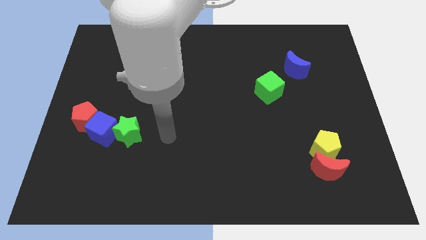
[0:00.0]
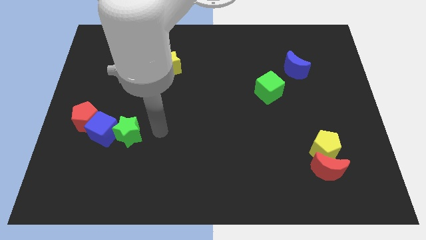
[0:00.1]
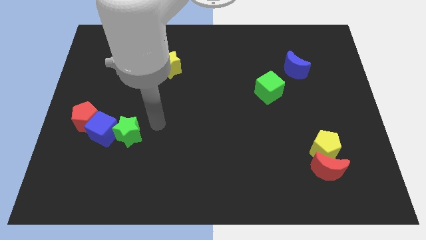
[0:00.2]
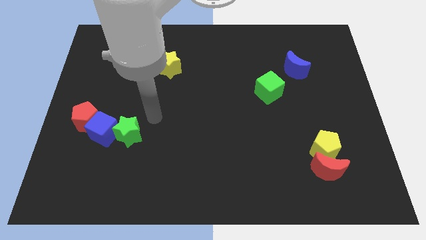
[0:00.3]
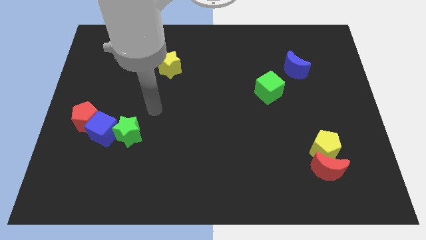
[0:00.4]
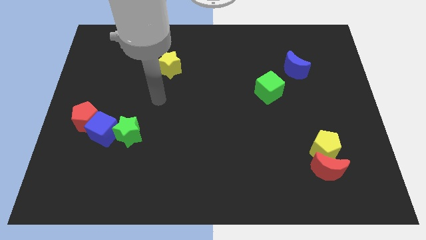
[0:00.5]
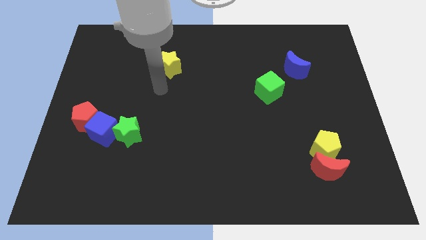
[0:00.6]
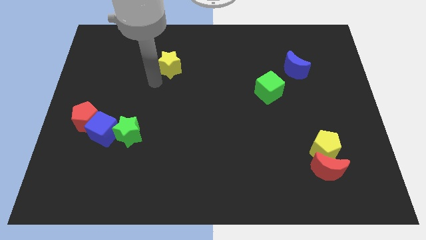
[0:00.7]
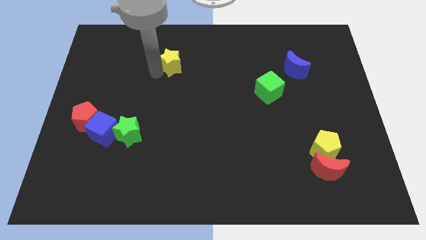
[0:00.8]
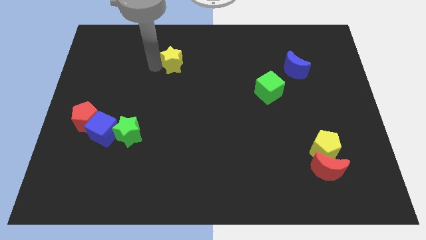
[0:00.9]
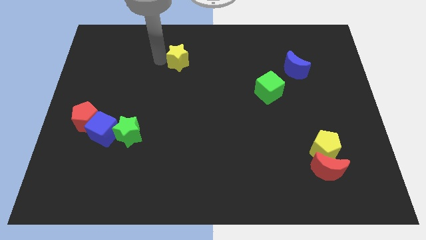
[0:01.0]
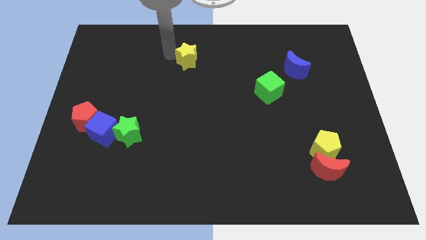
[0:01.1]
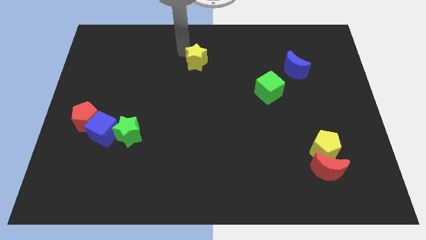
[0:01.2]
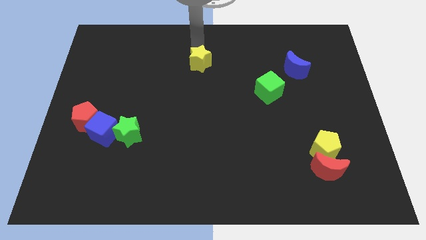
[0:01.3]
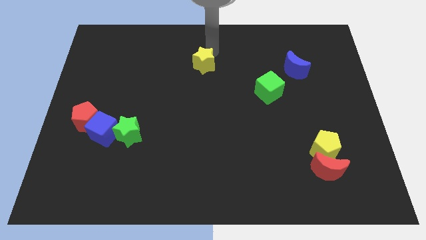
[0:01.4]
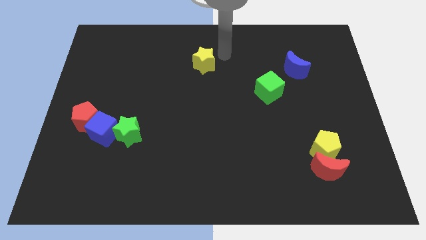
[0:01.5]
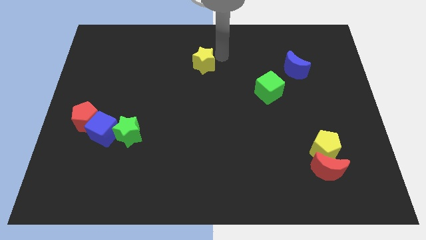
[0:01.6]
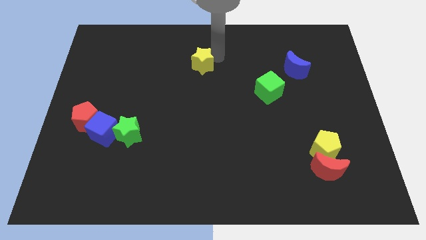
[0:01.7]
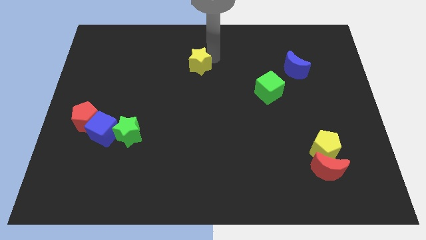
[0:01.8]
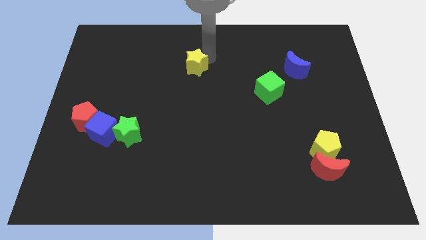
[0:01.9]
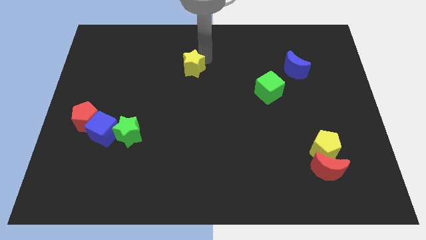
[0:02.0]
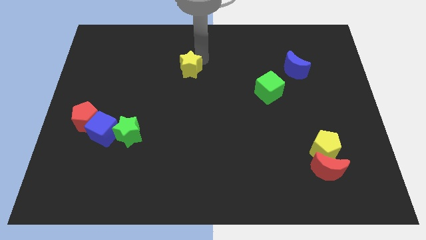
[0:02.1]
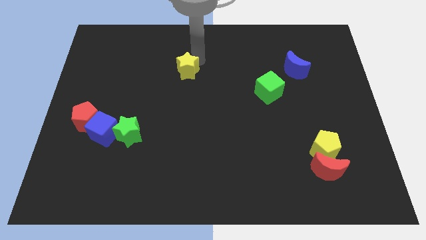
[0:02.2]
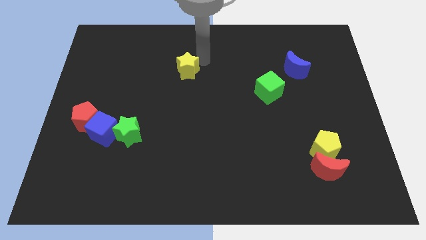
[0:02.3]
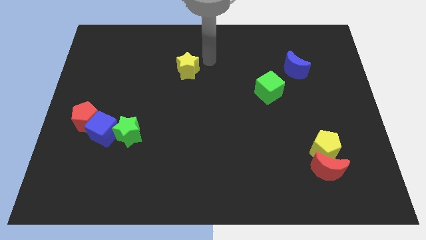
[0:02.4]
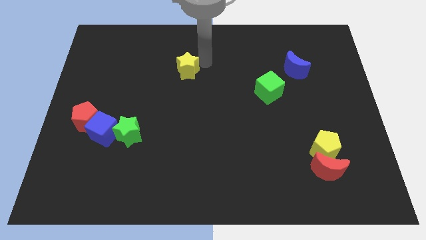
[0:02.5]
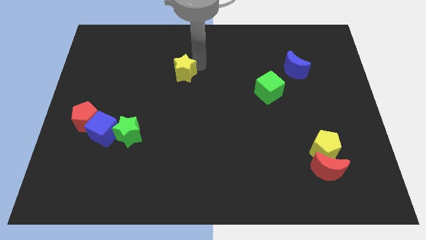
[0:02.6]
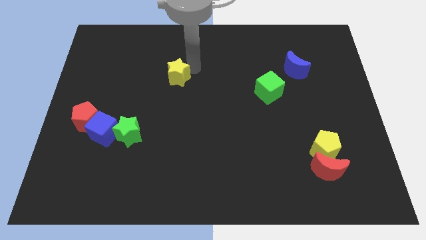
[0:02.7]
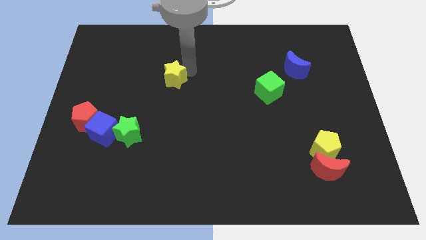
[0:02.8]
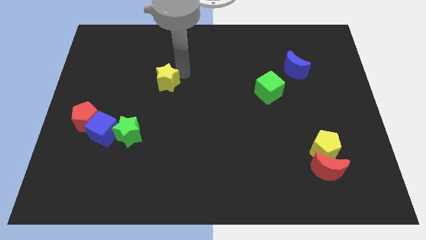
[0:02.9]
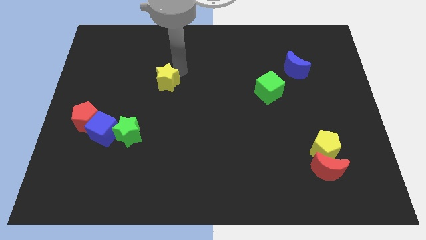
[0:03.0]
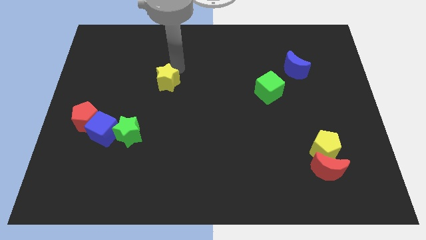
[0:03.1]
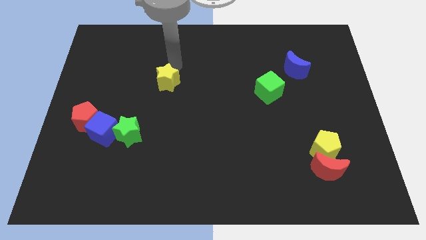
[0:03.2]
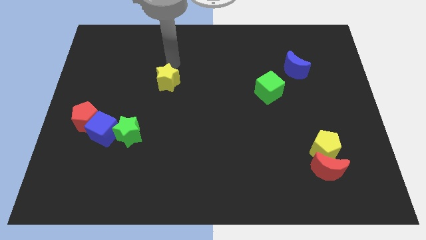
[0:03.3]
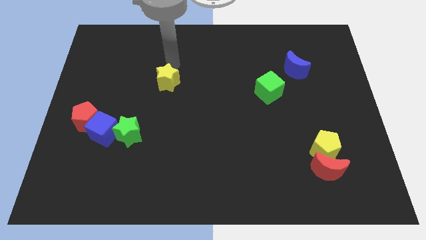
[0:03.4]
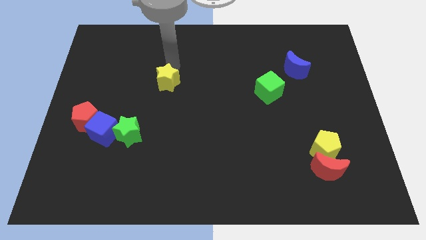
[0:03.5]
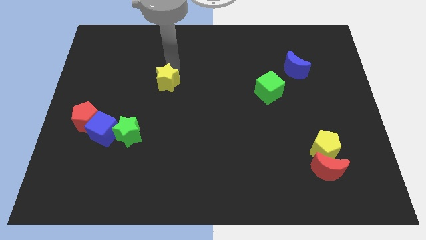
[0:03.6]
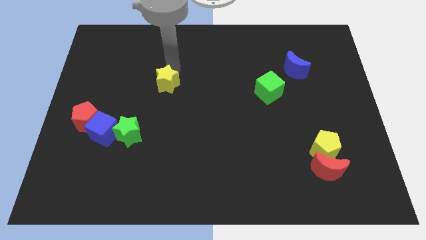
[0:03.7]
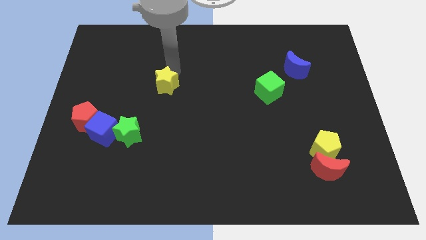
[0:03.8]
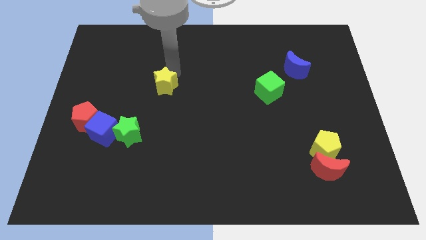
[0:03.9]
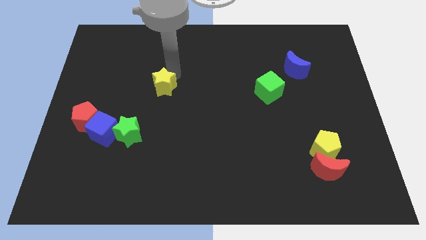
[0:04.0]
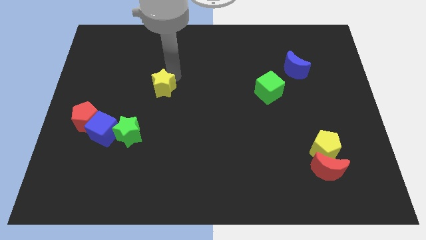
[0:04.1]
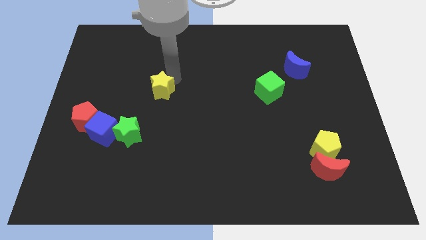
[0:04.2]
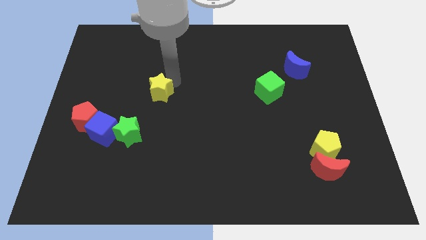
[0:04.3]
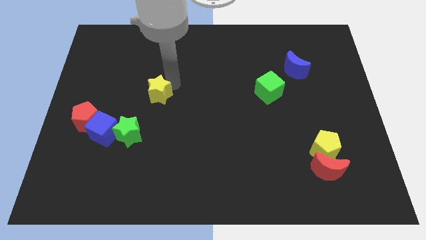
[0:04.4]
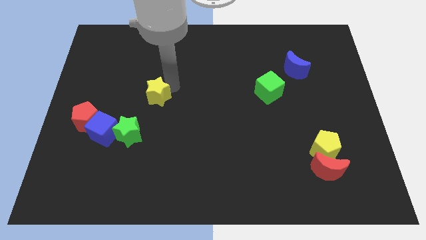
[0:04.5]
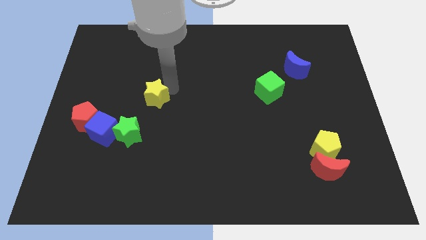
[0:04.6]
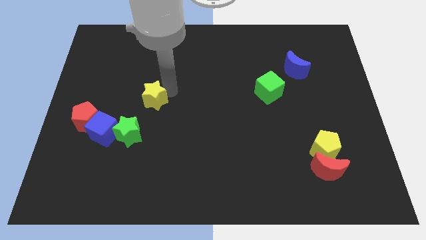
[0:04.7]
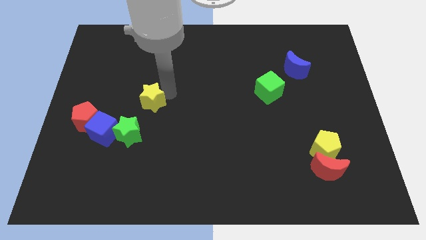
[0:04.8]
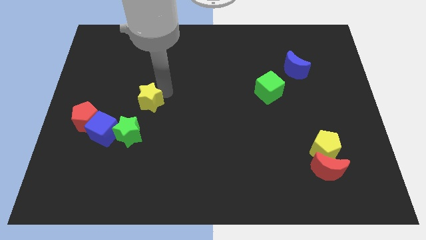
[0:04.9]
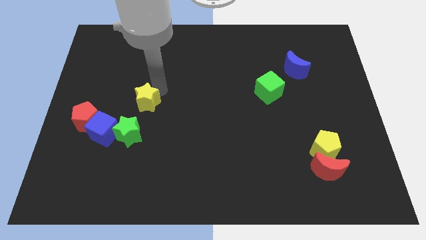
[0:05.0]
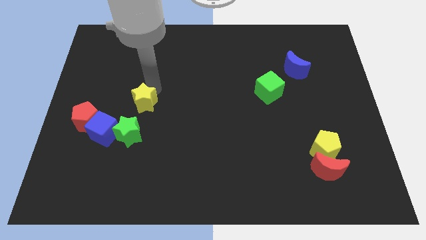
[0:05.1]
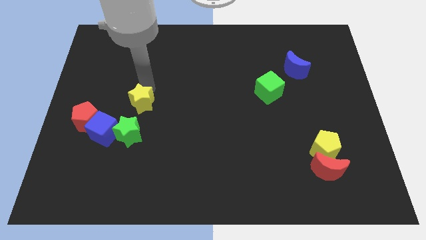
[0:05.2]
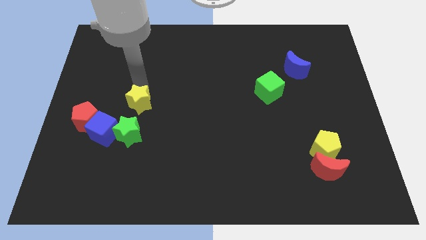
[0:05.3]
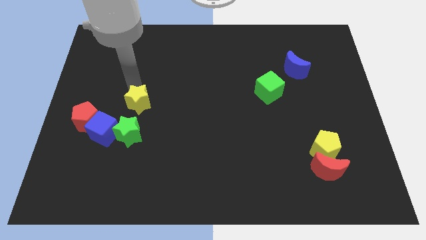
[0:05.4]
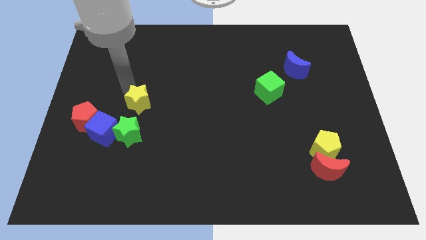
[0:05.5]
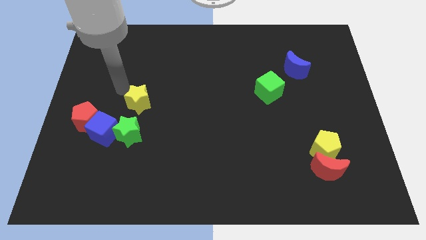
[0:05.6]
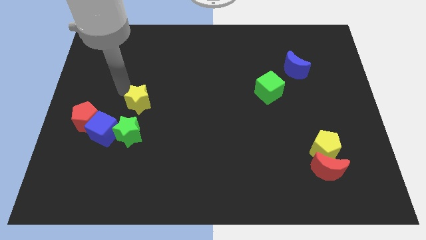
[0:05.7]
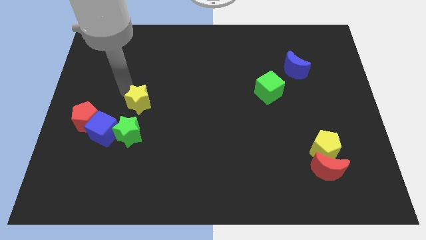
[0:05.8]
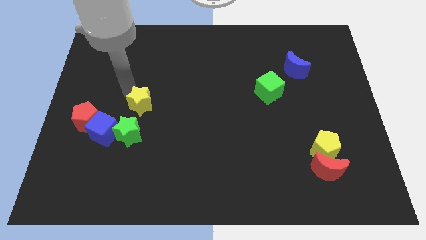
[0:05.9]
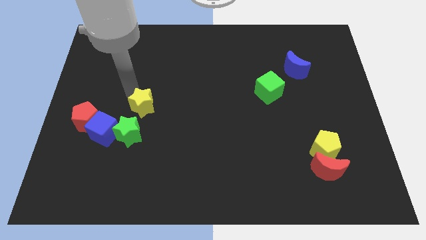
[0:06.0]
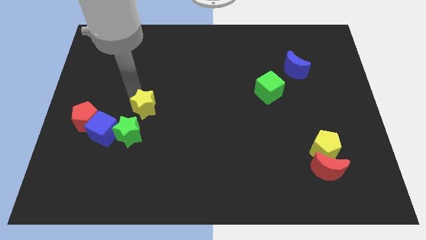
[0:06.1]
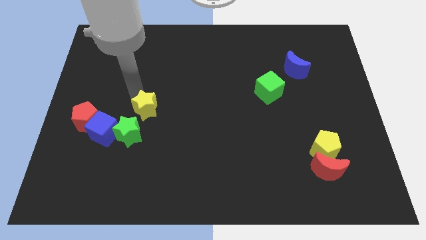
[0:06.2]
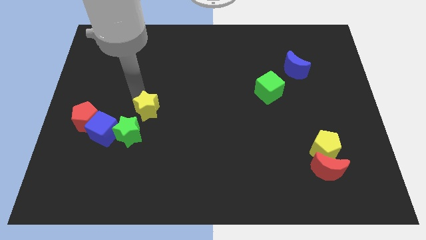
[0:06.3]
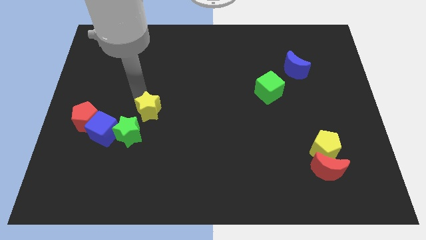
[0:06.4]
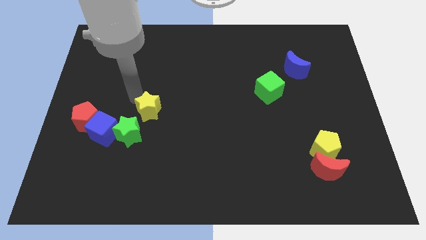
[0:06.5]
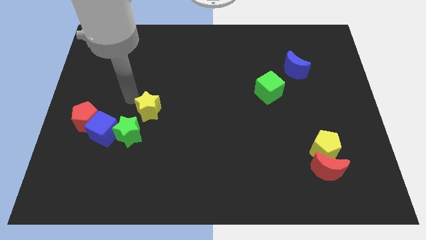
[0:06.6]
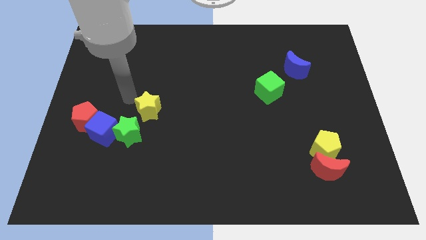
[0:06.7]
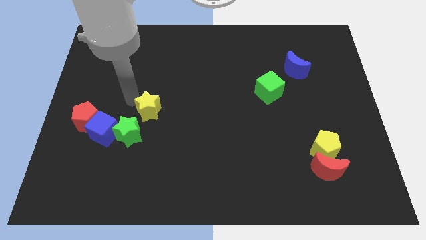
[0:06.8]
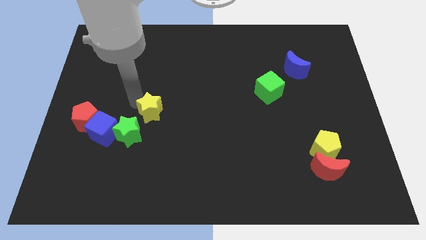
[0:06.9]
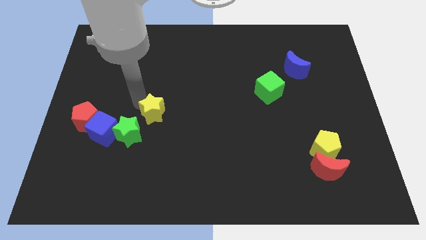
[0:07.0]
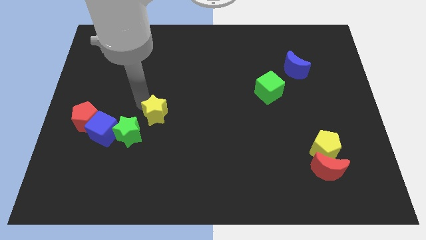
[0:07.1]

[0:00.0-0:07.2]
move the yellow star to the right of the blue cube
